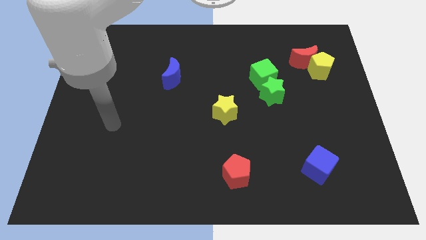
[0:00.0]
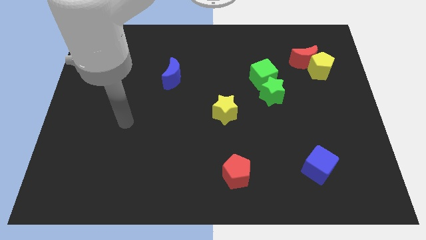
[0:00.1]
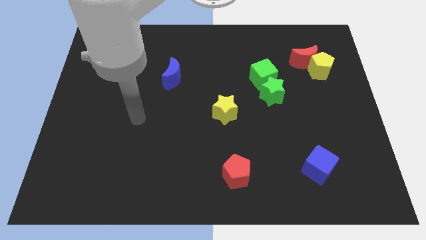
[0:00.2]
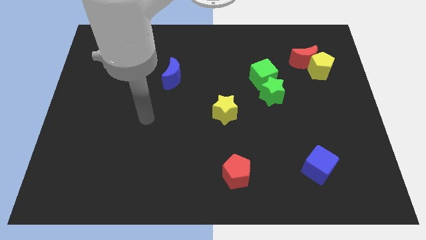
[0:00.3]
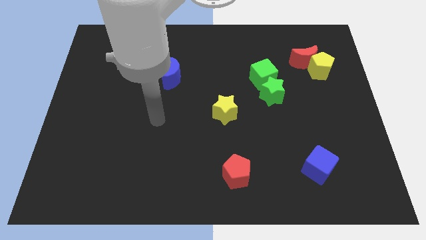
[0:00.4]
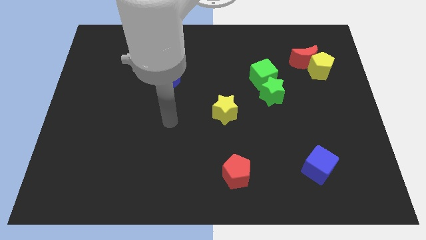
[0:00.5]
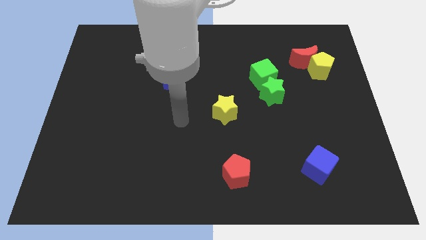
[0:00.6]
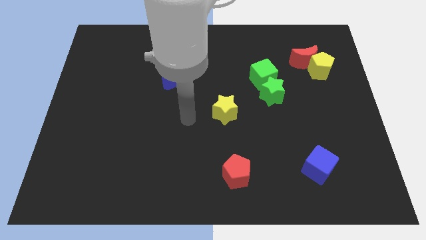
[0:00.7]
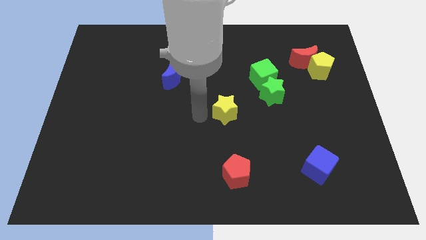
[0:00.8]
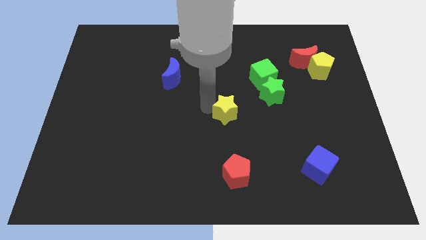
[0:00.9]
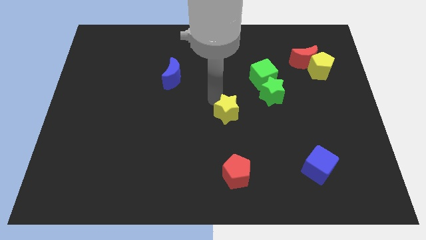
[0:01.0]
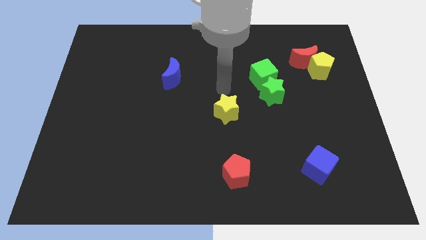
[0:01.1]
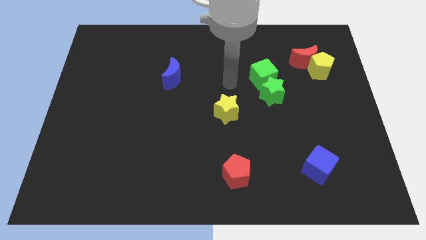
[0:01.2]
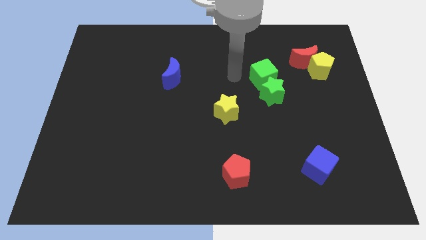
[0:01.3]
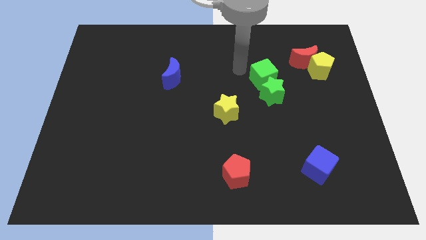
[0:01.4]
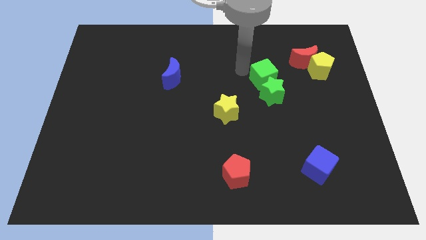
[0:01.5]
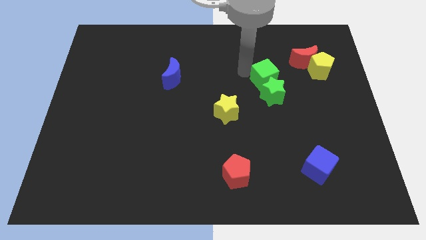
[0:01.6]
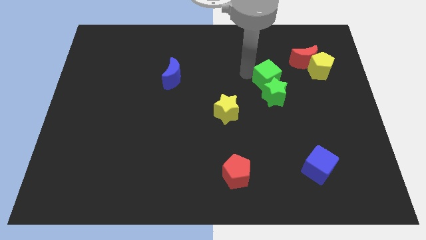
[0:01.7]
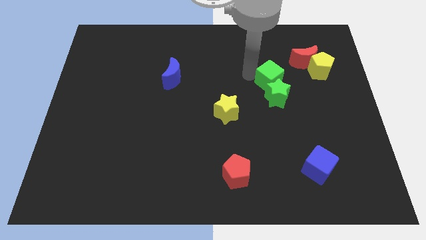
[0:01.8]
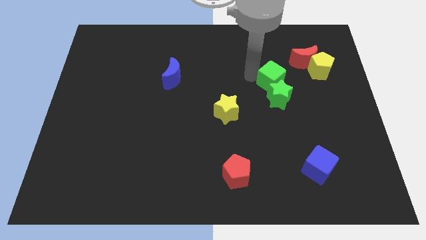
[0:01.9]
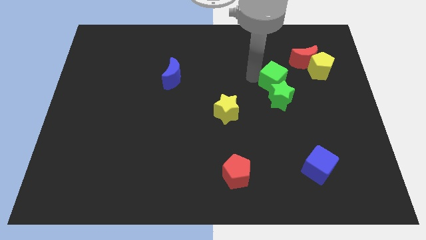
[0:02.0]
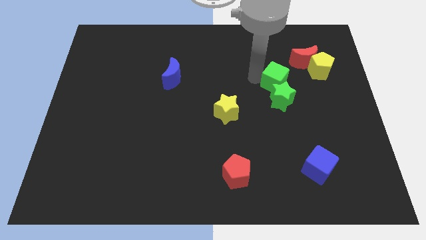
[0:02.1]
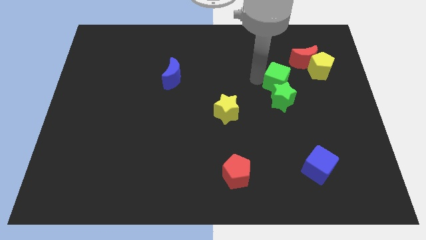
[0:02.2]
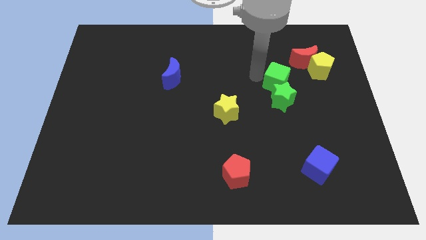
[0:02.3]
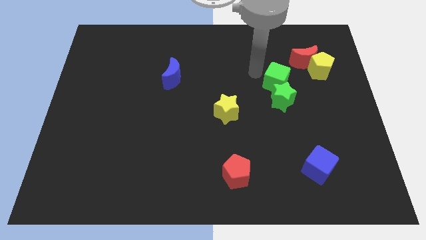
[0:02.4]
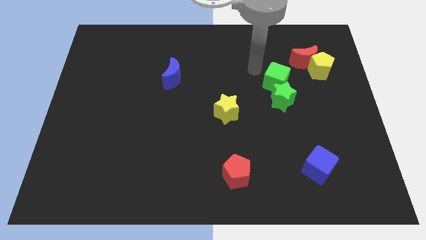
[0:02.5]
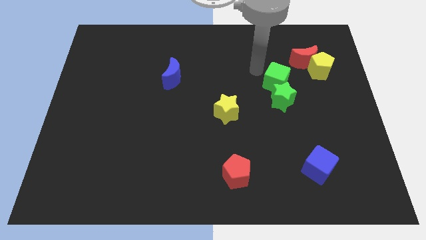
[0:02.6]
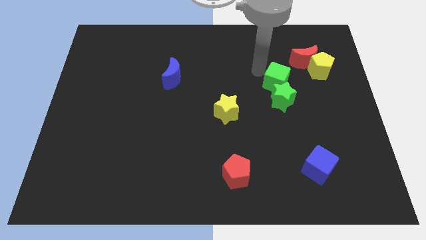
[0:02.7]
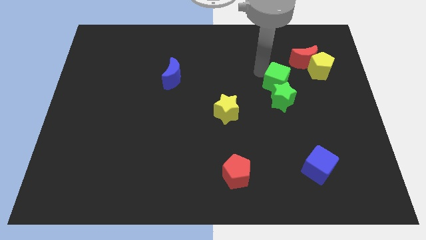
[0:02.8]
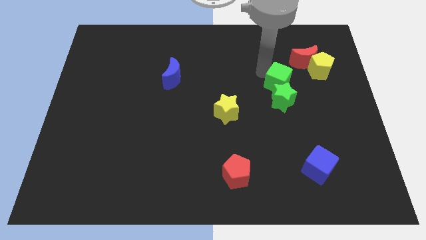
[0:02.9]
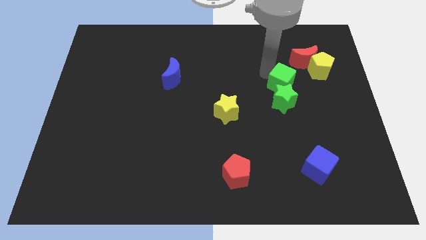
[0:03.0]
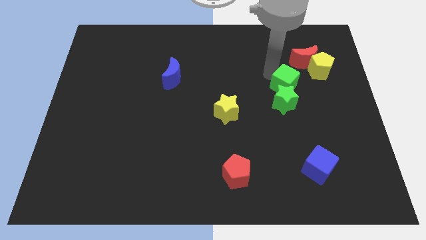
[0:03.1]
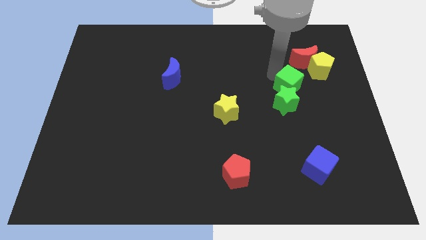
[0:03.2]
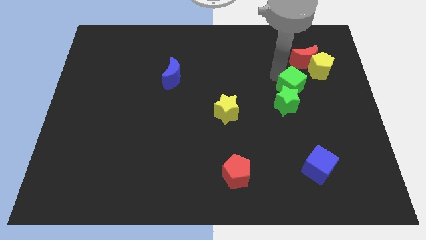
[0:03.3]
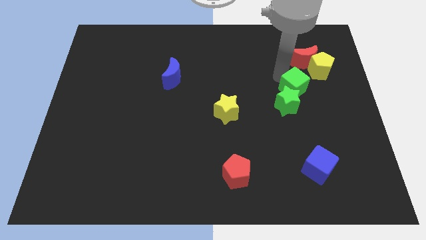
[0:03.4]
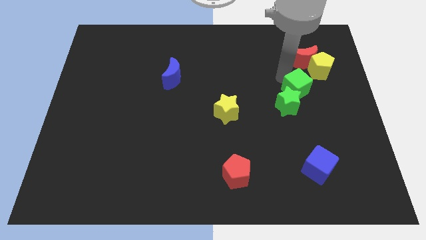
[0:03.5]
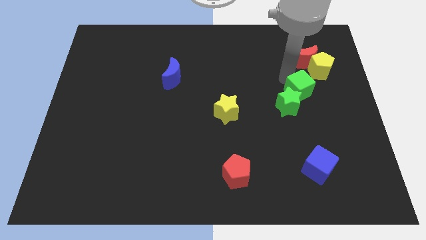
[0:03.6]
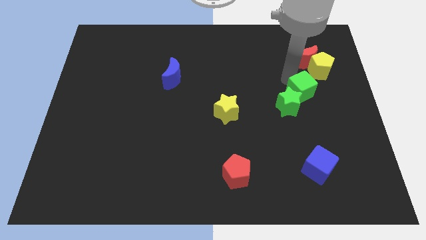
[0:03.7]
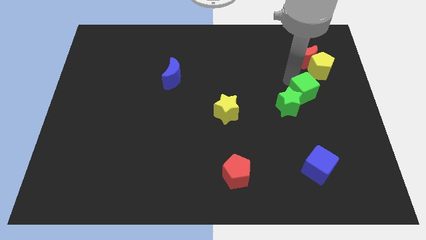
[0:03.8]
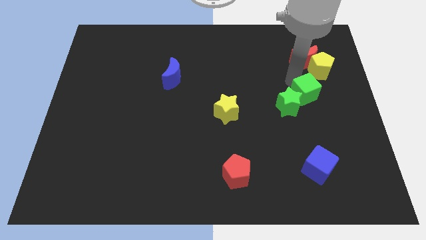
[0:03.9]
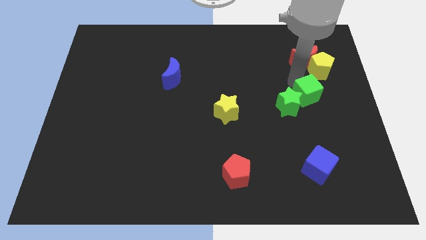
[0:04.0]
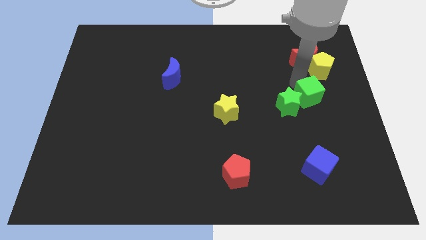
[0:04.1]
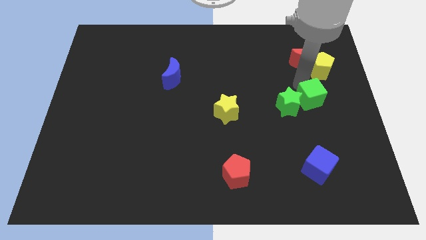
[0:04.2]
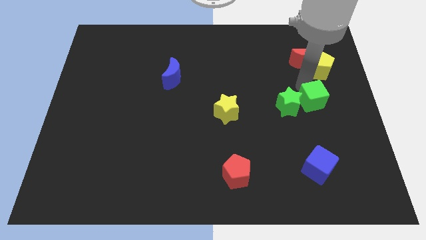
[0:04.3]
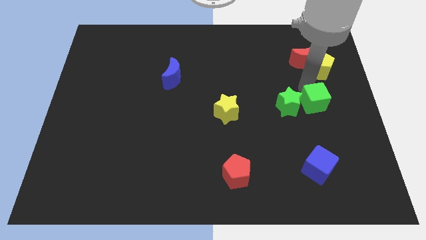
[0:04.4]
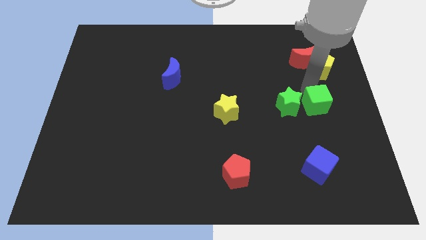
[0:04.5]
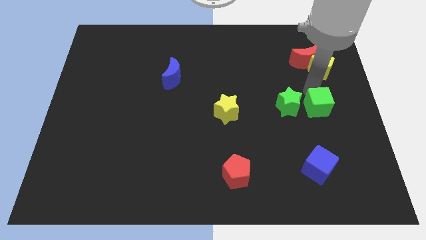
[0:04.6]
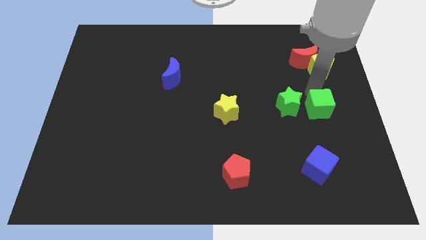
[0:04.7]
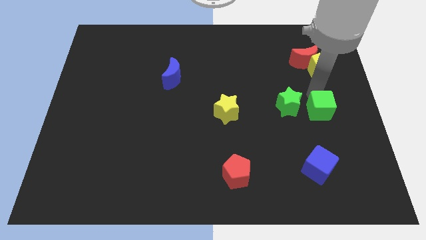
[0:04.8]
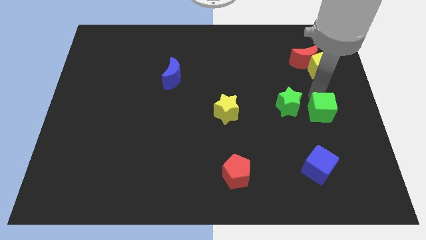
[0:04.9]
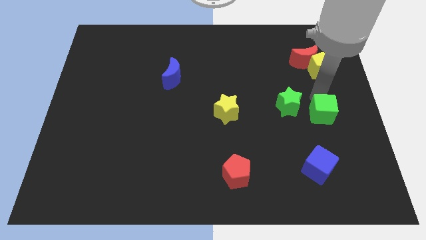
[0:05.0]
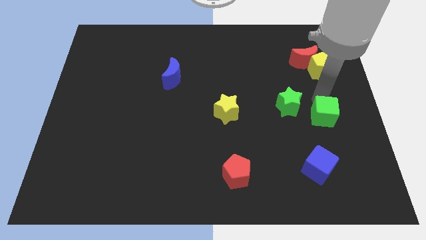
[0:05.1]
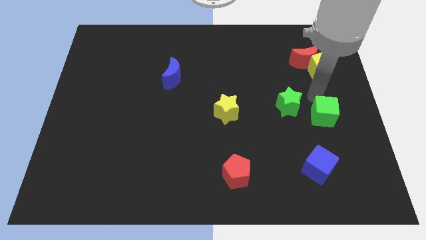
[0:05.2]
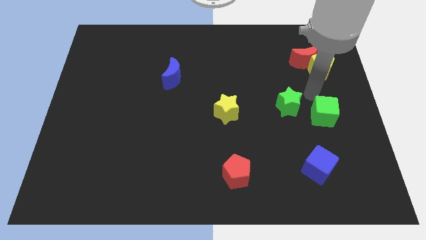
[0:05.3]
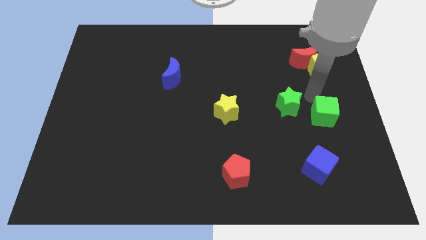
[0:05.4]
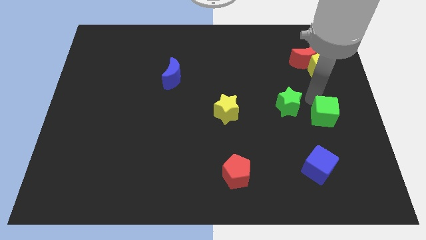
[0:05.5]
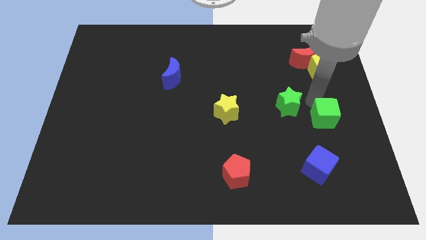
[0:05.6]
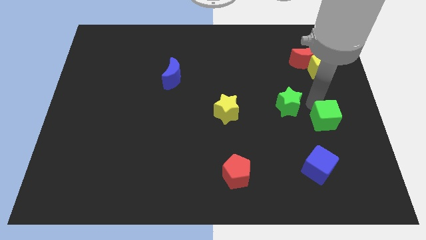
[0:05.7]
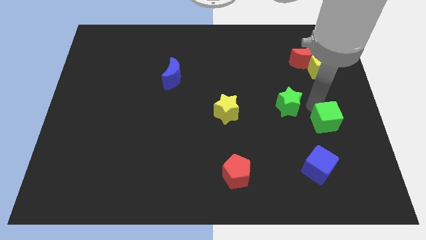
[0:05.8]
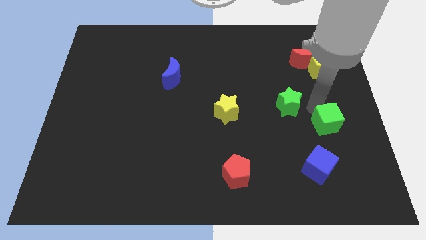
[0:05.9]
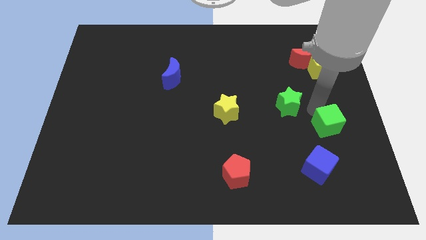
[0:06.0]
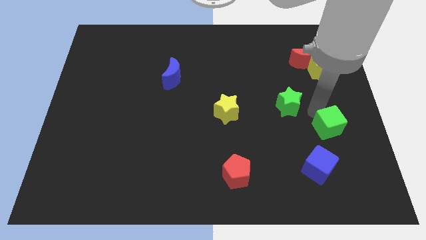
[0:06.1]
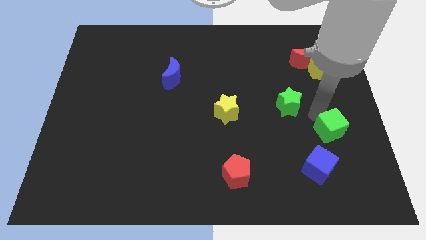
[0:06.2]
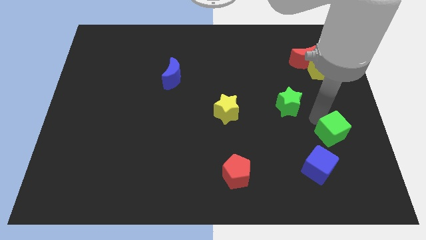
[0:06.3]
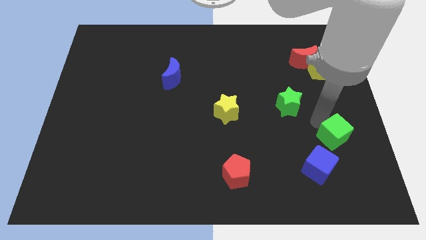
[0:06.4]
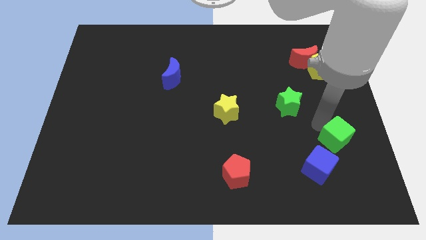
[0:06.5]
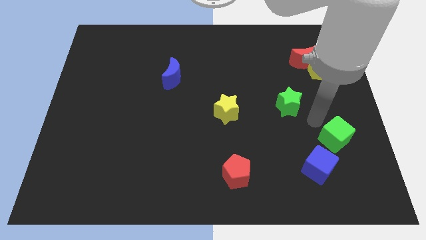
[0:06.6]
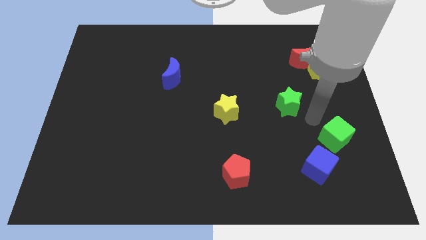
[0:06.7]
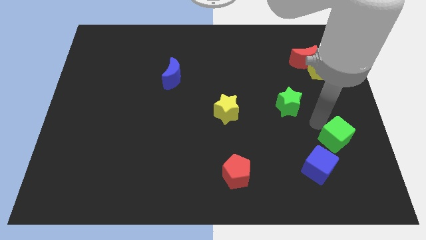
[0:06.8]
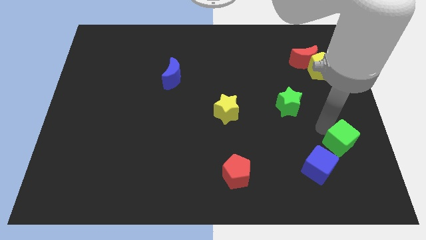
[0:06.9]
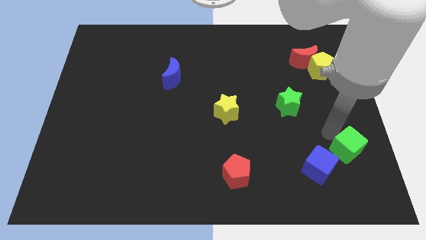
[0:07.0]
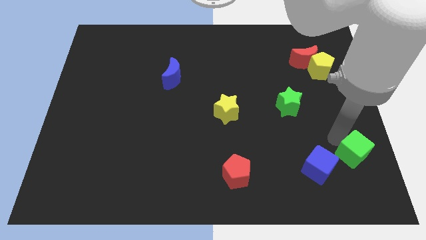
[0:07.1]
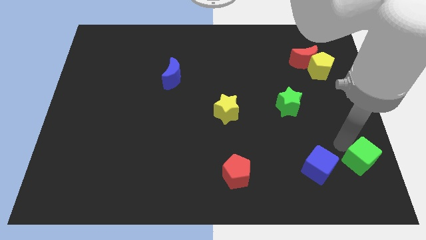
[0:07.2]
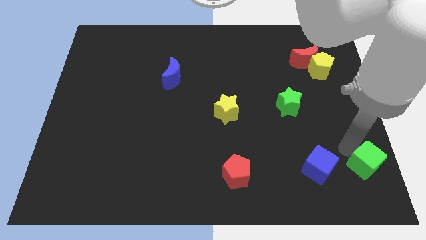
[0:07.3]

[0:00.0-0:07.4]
put the green cube to the lower right corner
